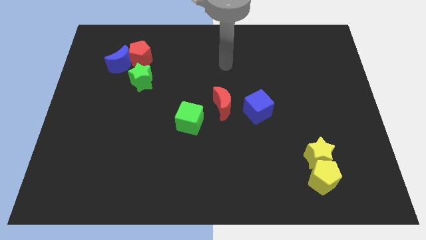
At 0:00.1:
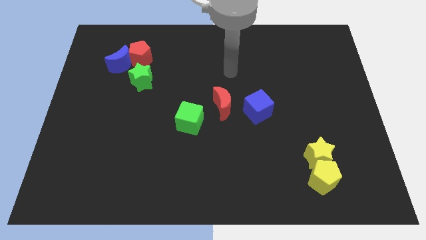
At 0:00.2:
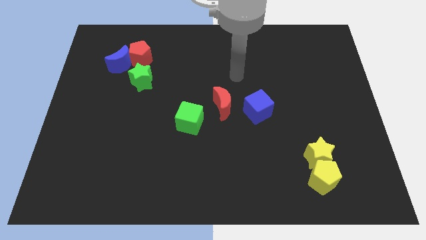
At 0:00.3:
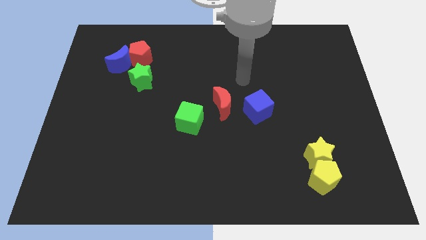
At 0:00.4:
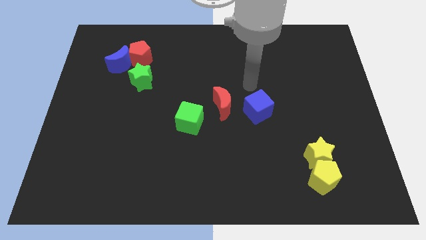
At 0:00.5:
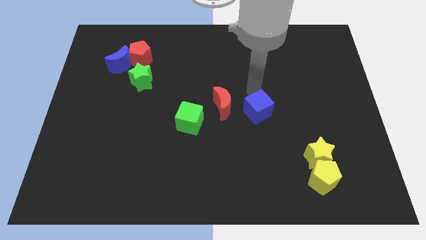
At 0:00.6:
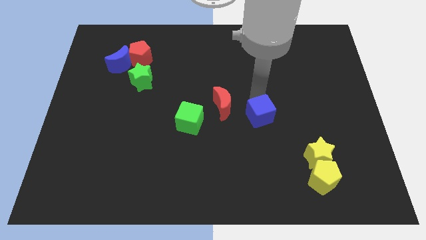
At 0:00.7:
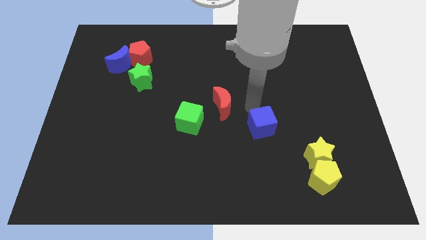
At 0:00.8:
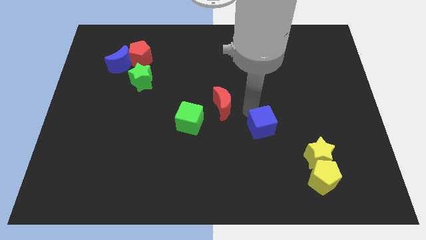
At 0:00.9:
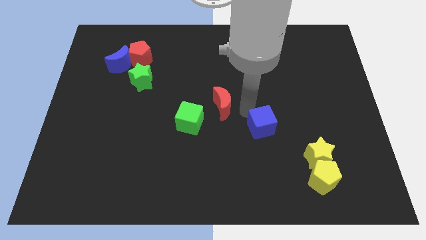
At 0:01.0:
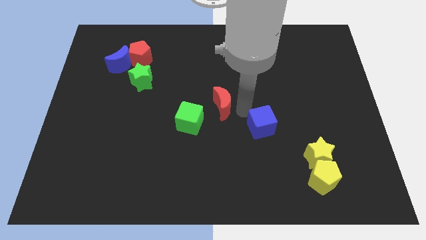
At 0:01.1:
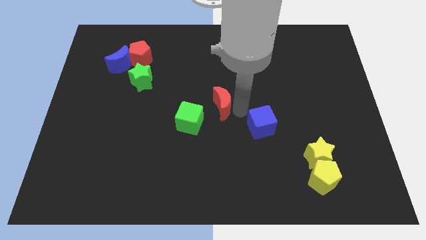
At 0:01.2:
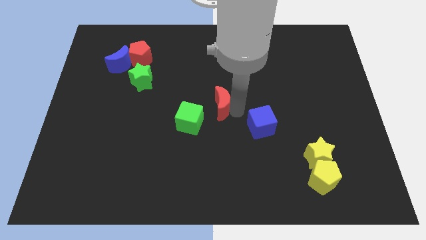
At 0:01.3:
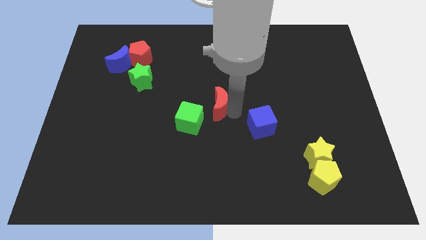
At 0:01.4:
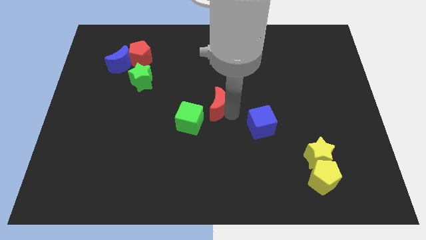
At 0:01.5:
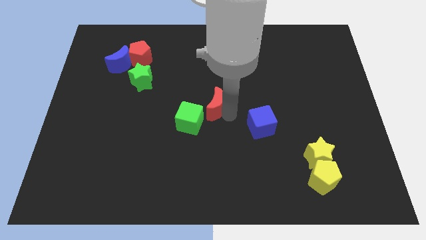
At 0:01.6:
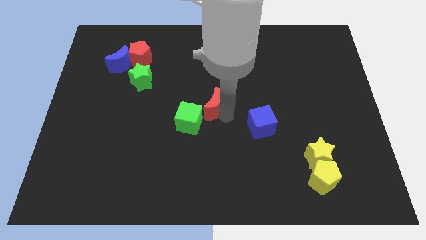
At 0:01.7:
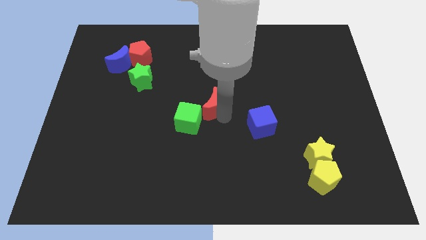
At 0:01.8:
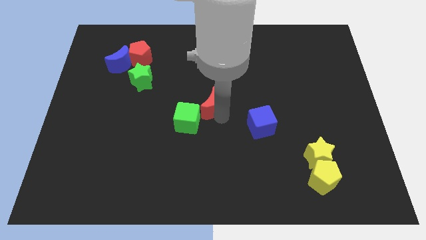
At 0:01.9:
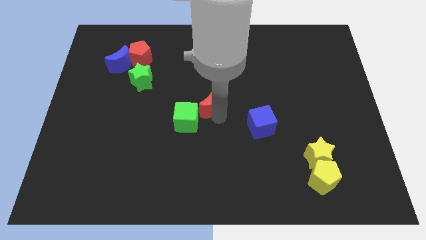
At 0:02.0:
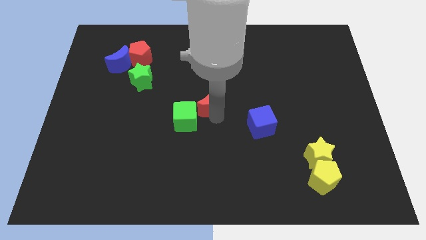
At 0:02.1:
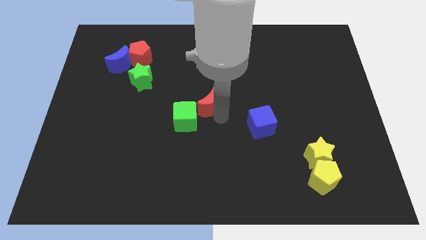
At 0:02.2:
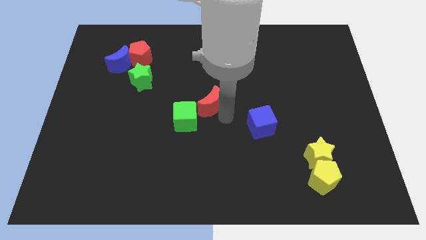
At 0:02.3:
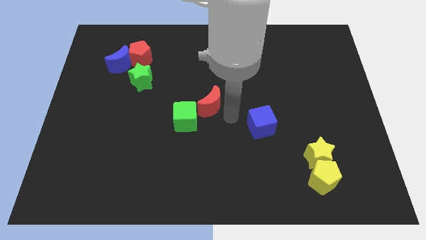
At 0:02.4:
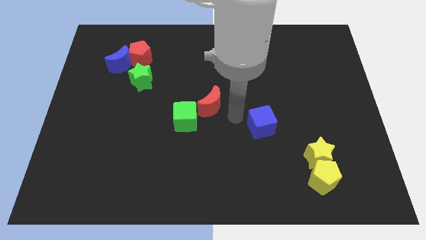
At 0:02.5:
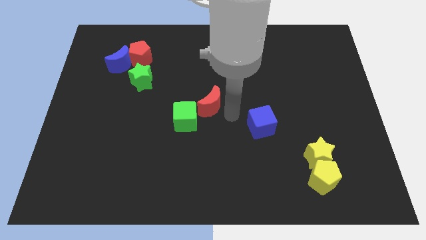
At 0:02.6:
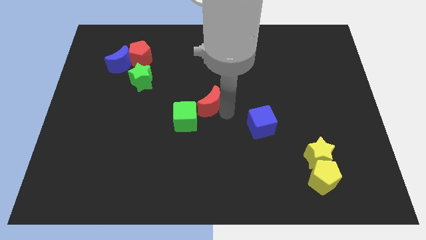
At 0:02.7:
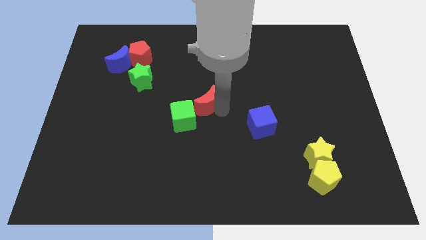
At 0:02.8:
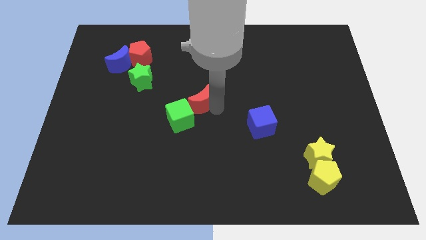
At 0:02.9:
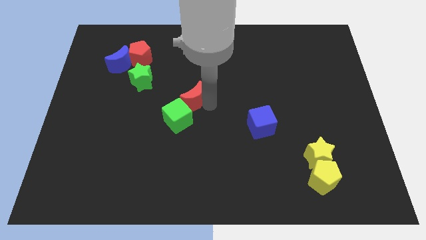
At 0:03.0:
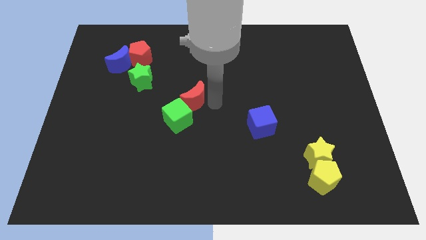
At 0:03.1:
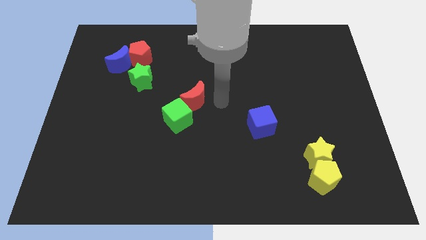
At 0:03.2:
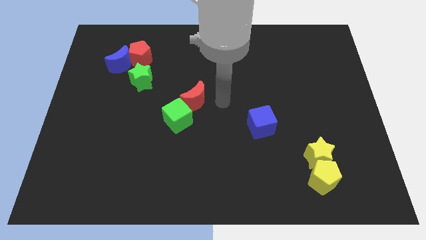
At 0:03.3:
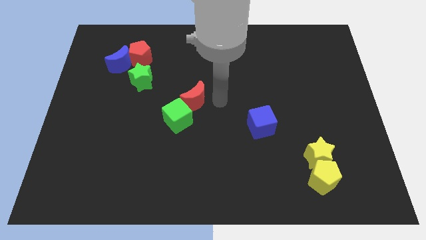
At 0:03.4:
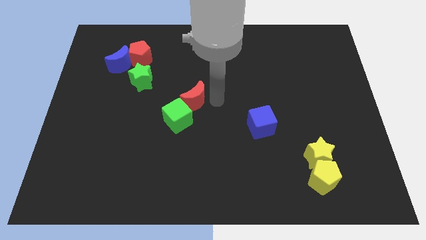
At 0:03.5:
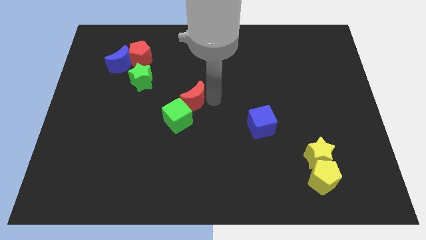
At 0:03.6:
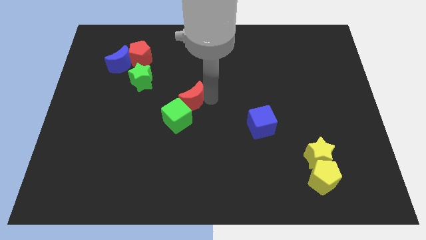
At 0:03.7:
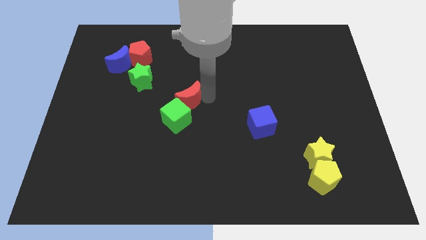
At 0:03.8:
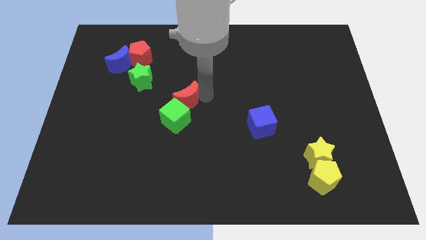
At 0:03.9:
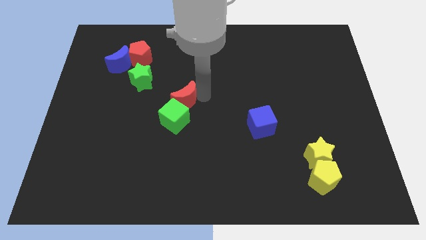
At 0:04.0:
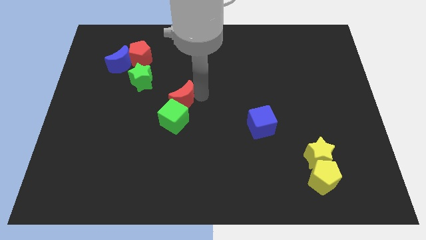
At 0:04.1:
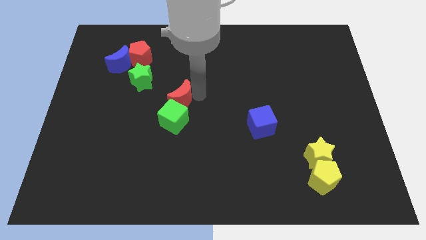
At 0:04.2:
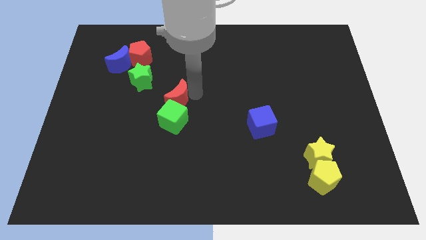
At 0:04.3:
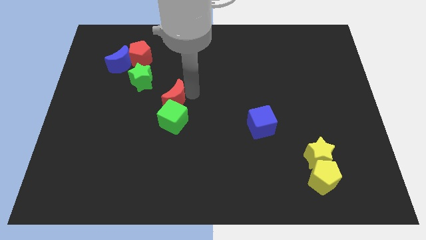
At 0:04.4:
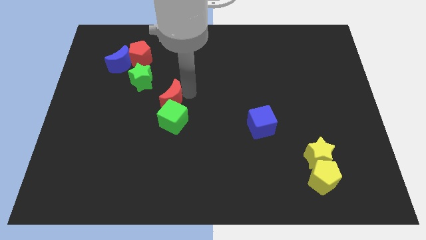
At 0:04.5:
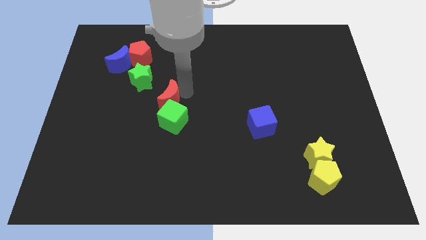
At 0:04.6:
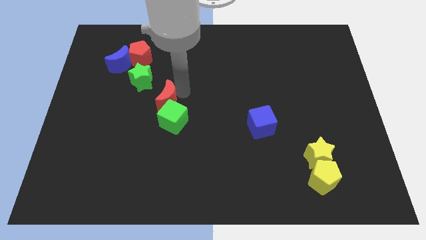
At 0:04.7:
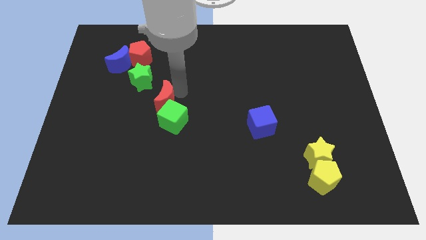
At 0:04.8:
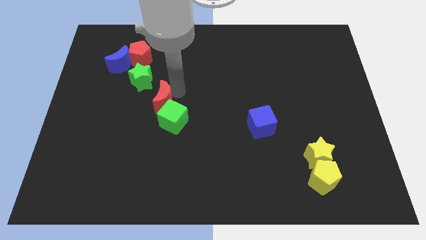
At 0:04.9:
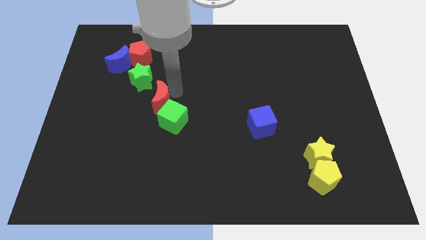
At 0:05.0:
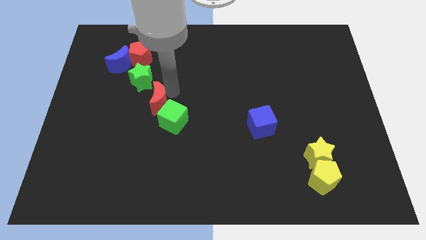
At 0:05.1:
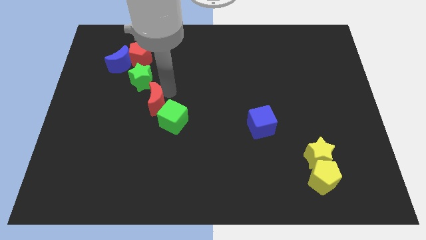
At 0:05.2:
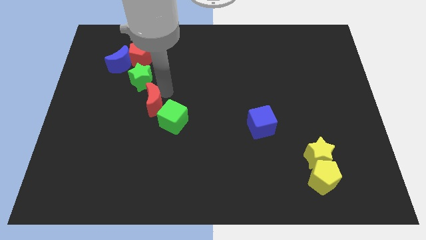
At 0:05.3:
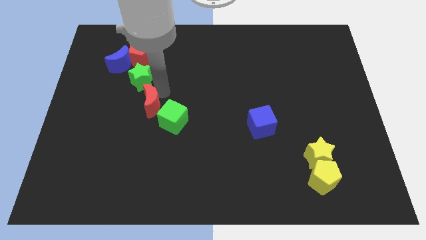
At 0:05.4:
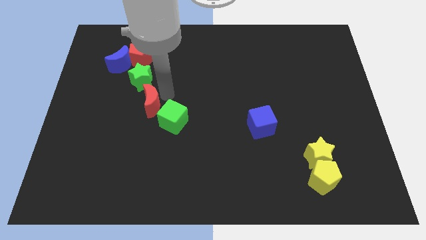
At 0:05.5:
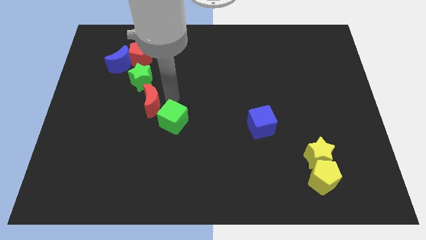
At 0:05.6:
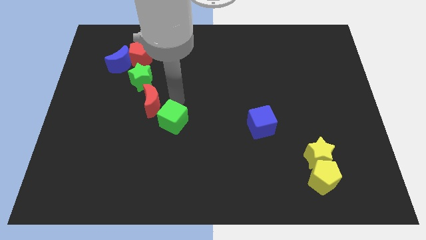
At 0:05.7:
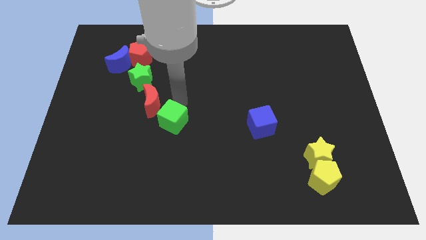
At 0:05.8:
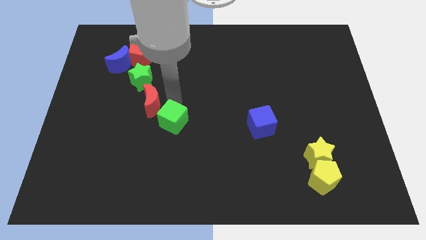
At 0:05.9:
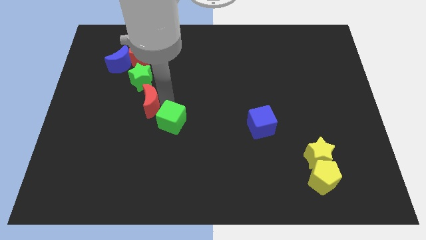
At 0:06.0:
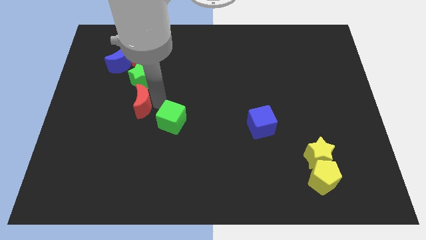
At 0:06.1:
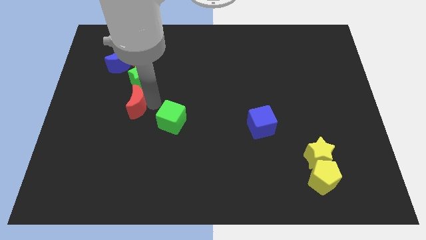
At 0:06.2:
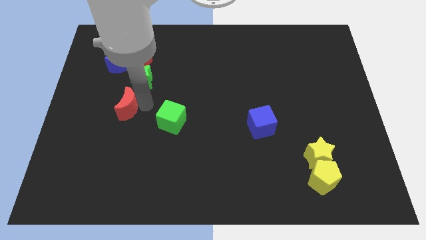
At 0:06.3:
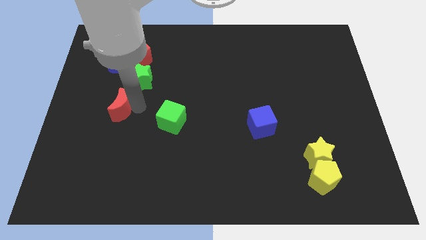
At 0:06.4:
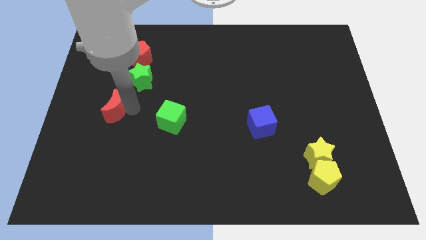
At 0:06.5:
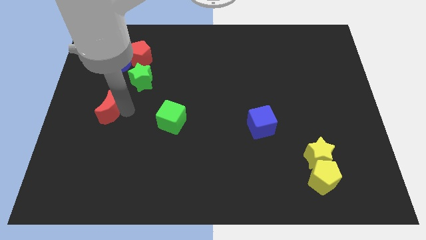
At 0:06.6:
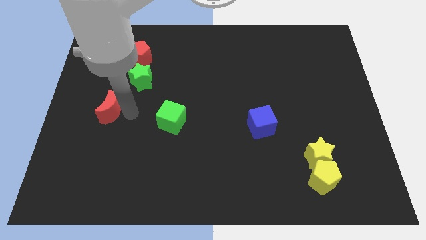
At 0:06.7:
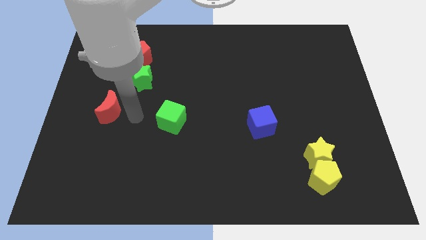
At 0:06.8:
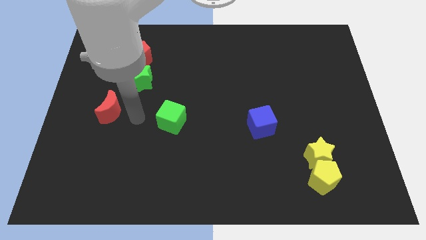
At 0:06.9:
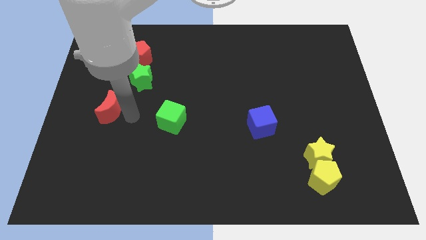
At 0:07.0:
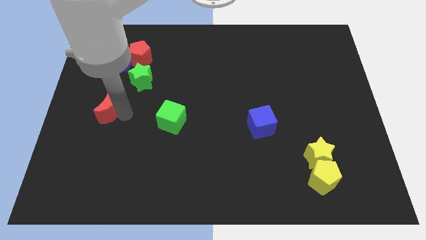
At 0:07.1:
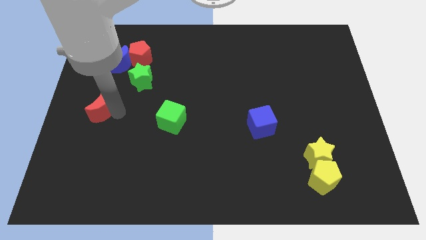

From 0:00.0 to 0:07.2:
push the red moon to the left side

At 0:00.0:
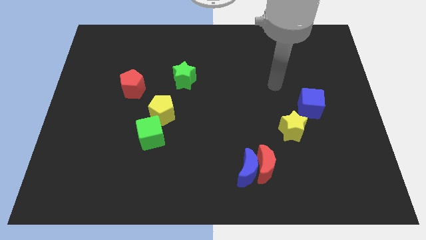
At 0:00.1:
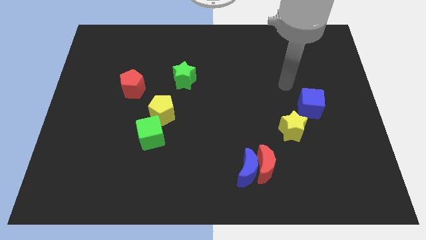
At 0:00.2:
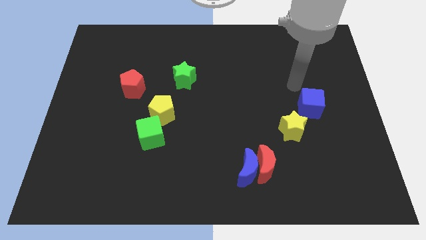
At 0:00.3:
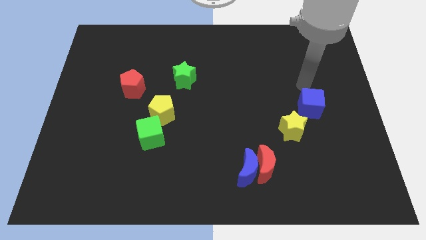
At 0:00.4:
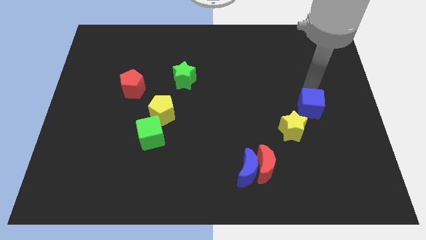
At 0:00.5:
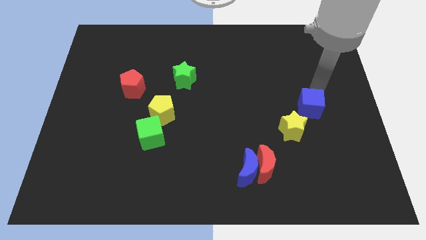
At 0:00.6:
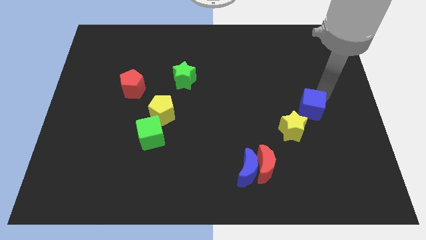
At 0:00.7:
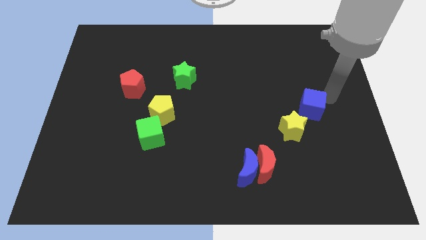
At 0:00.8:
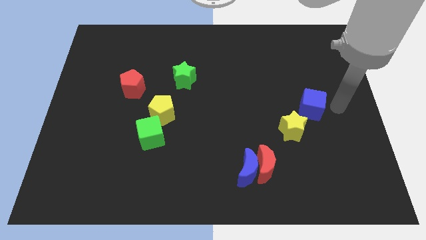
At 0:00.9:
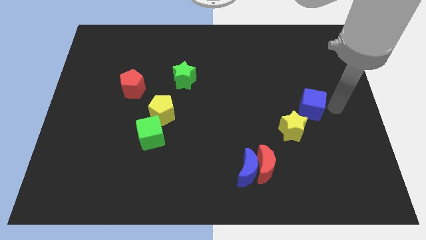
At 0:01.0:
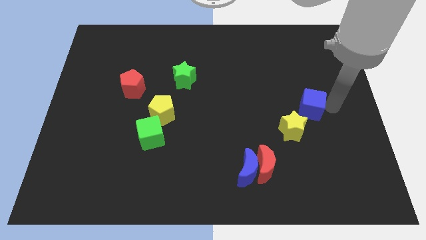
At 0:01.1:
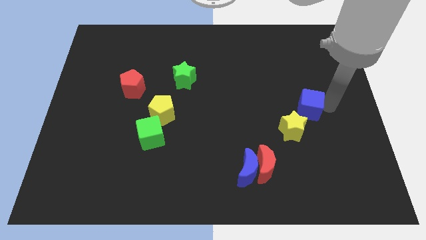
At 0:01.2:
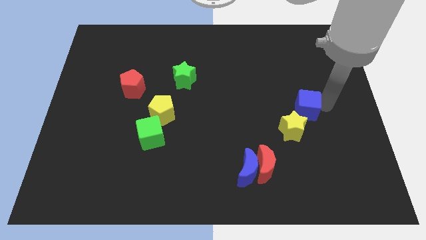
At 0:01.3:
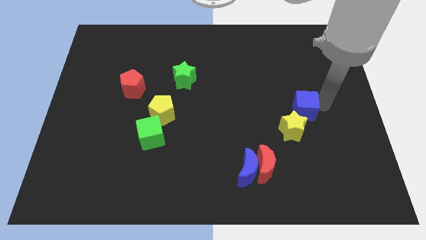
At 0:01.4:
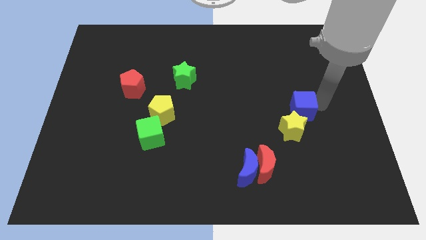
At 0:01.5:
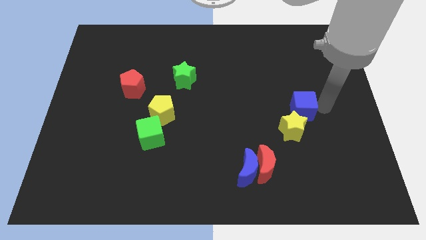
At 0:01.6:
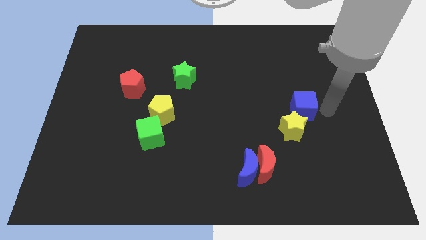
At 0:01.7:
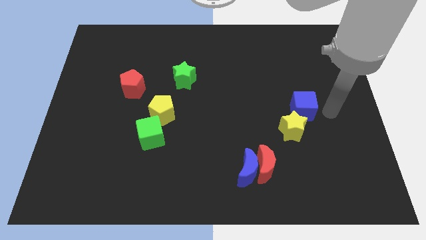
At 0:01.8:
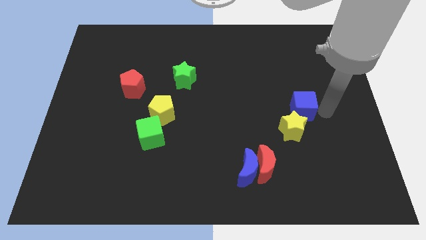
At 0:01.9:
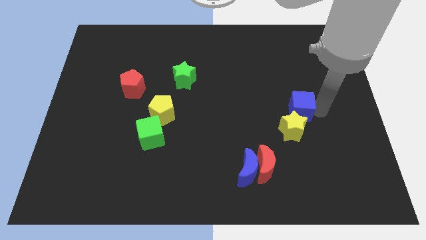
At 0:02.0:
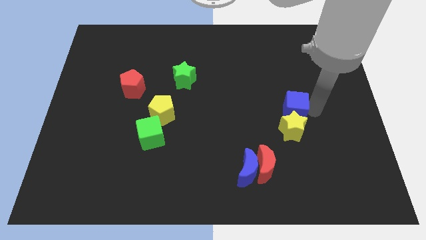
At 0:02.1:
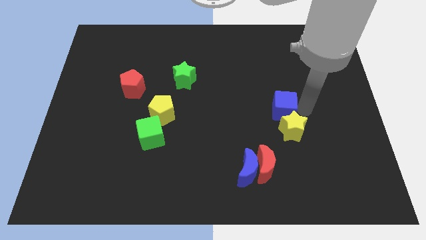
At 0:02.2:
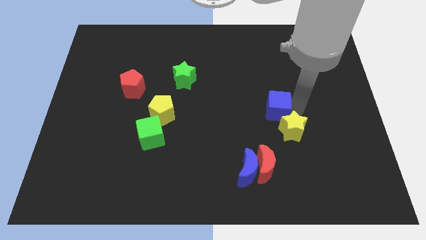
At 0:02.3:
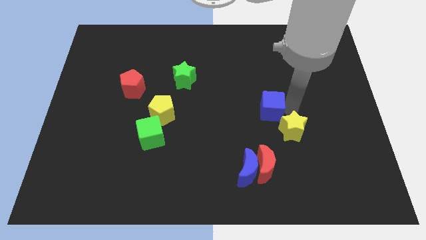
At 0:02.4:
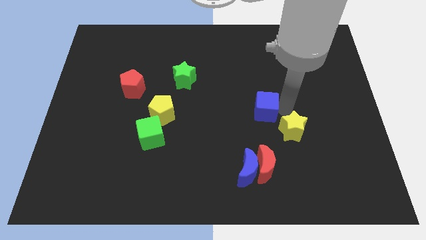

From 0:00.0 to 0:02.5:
push the blue cube to the center of the board
